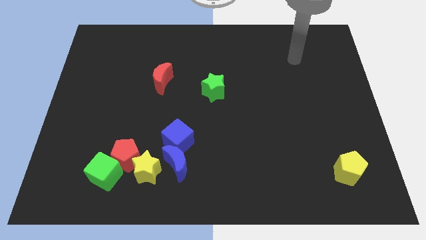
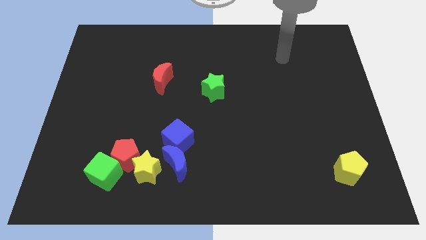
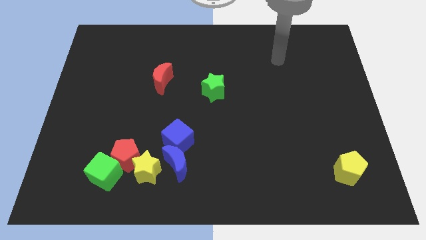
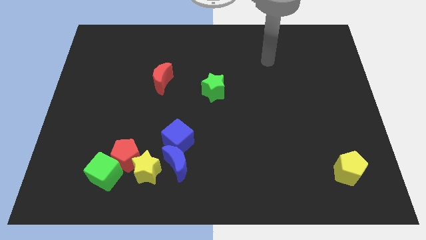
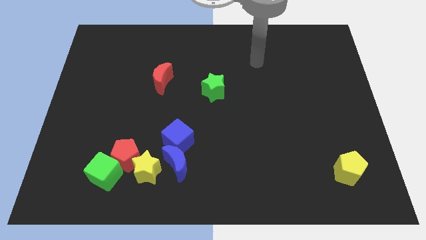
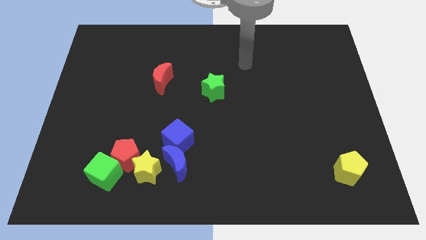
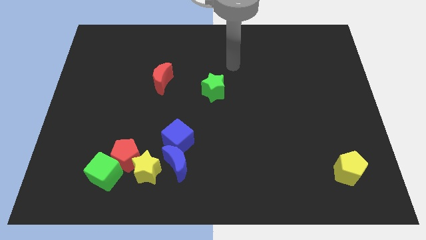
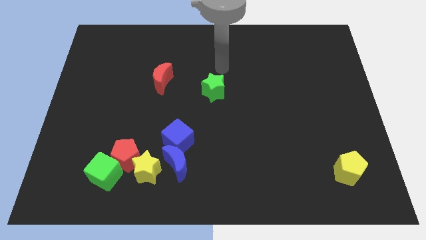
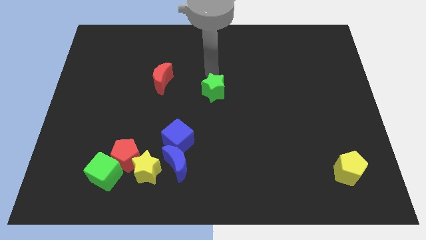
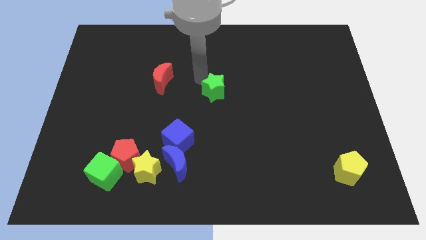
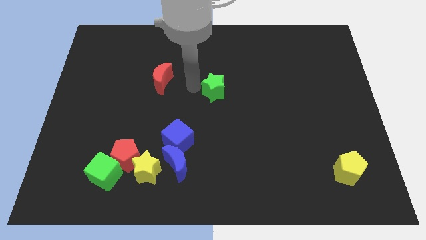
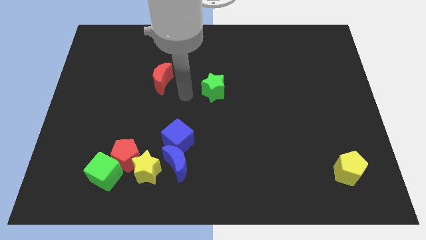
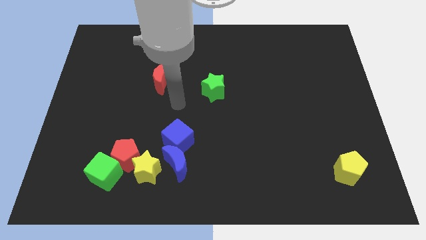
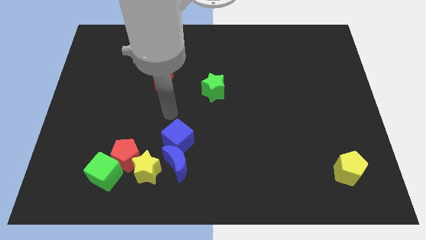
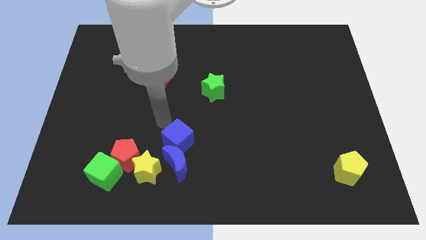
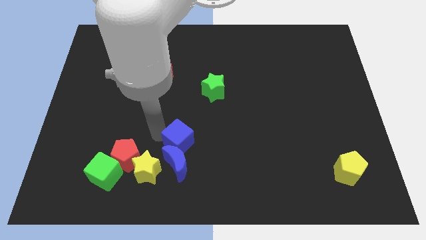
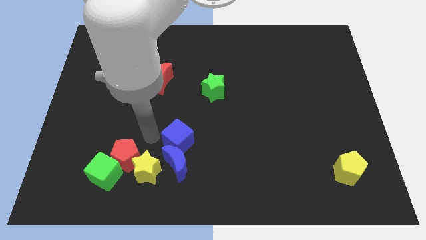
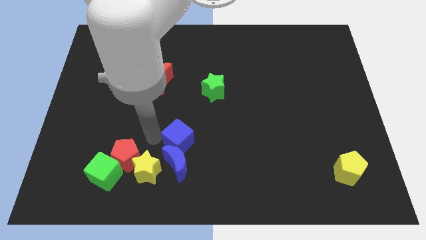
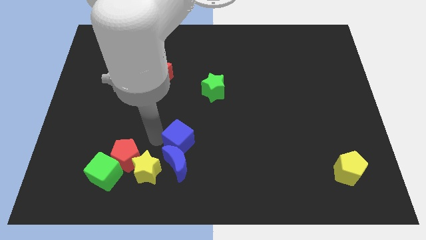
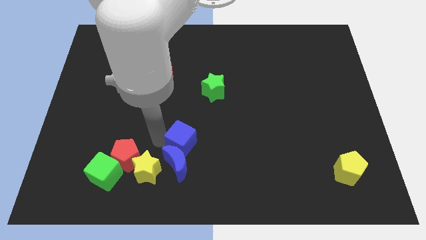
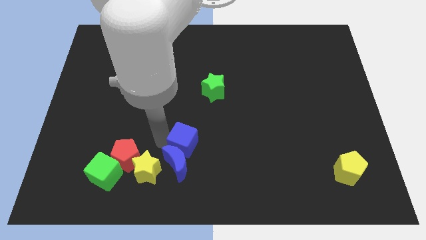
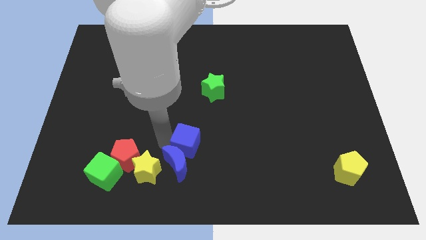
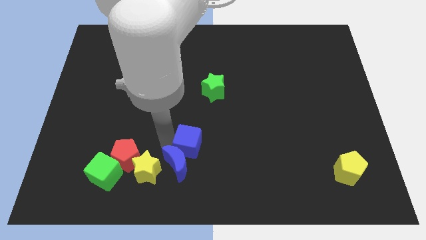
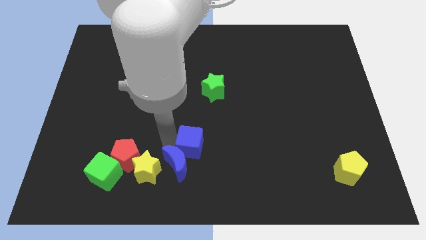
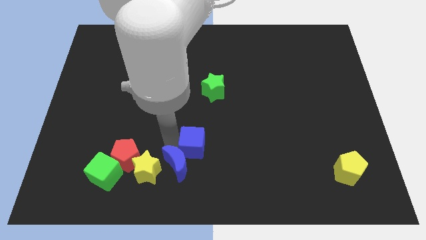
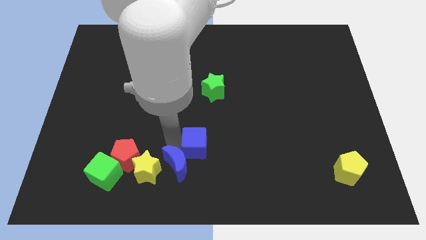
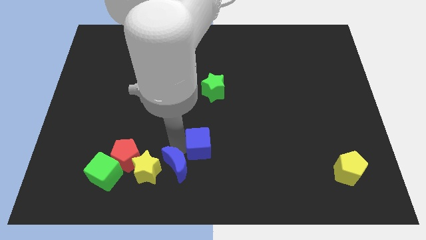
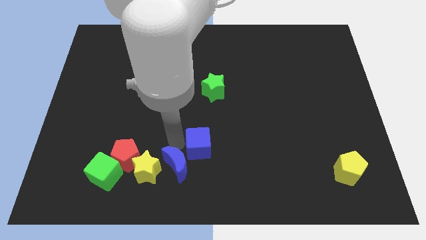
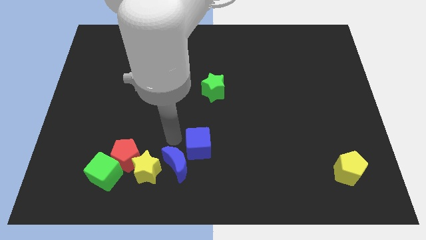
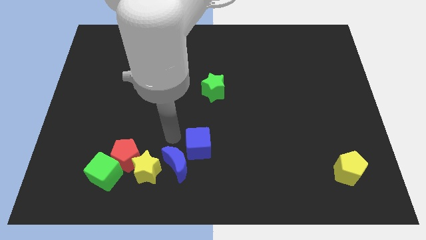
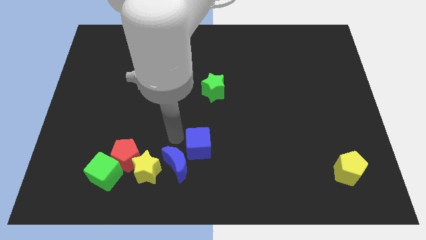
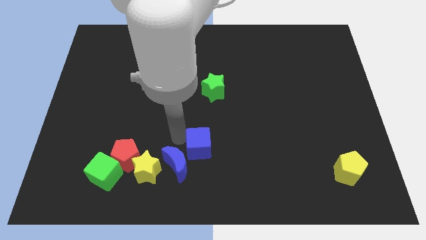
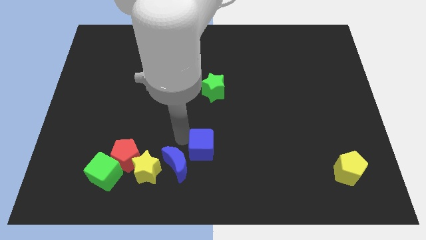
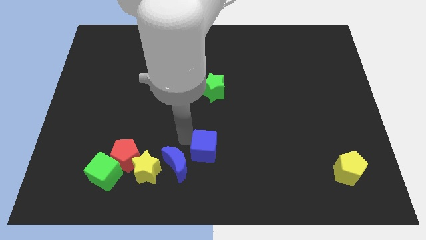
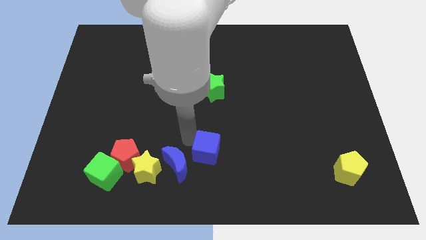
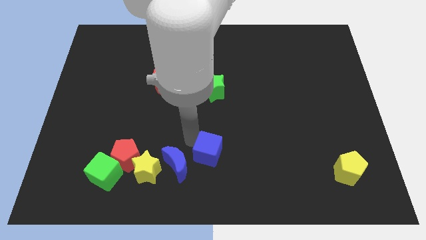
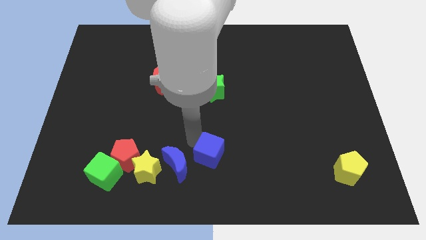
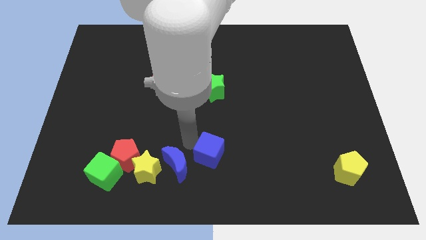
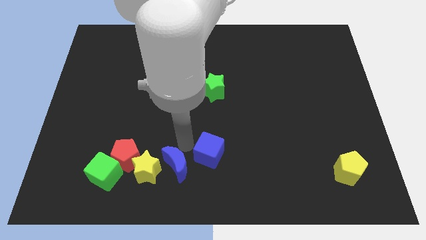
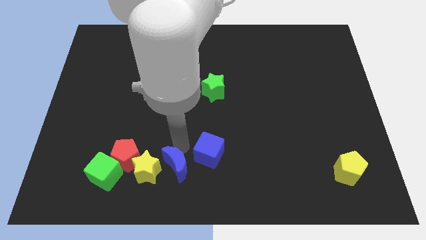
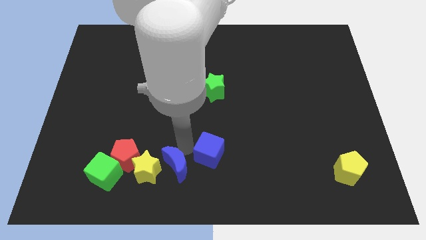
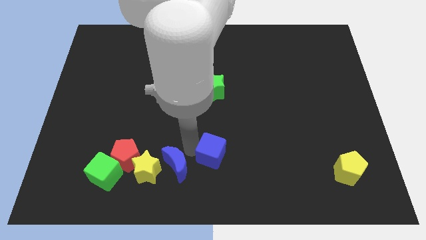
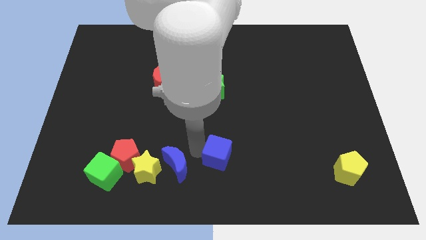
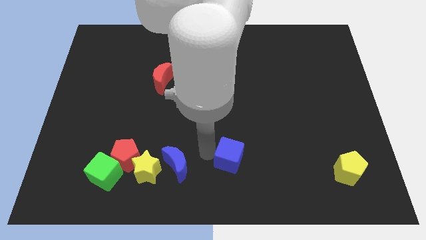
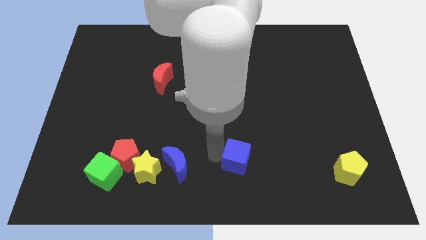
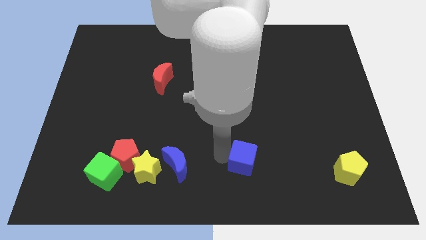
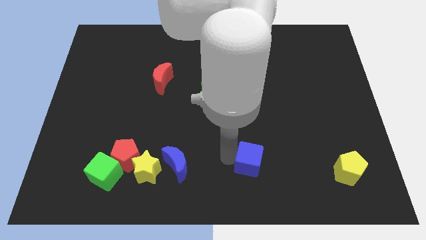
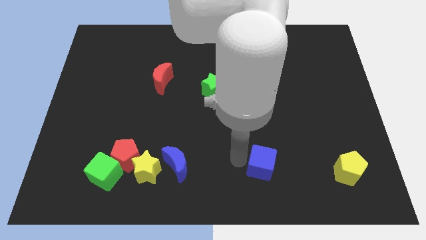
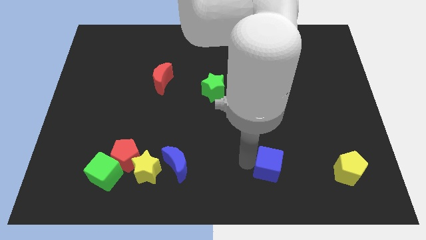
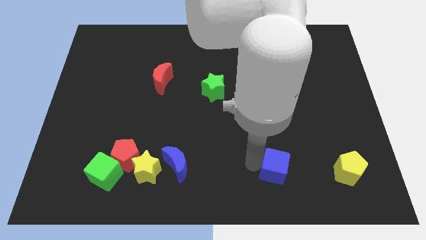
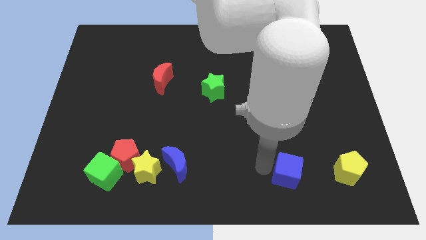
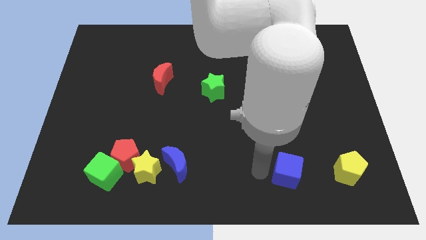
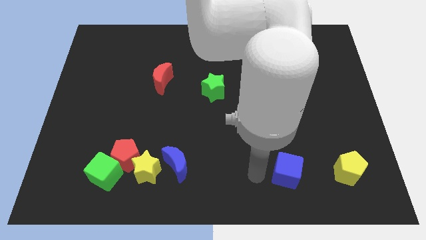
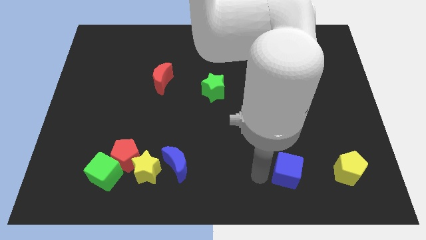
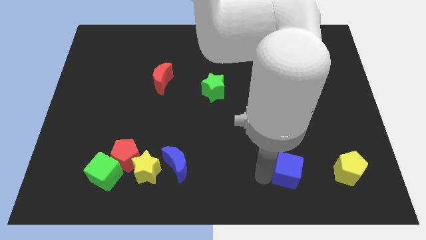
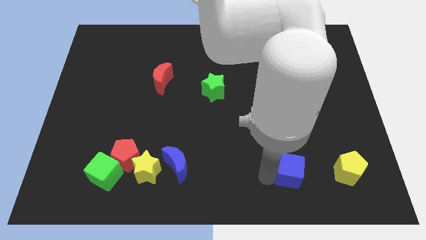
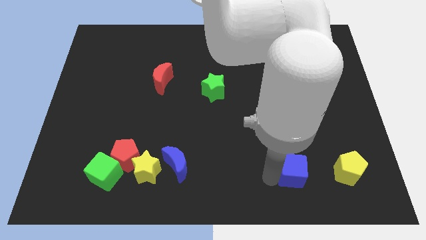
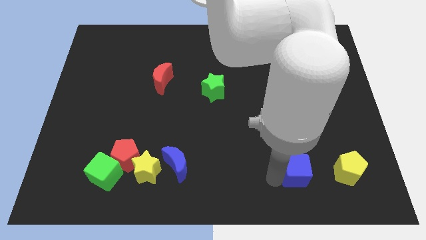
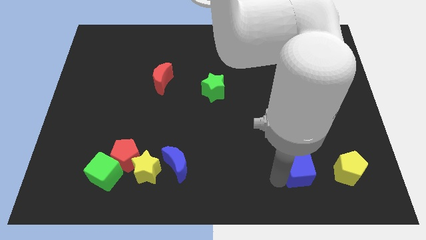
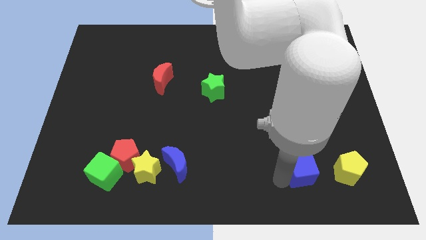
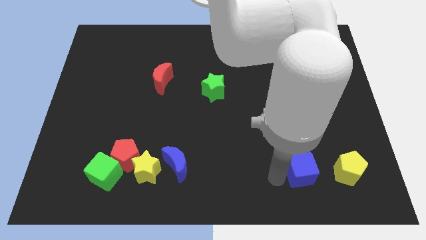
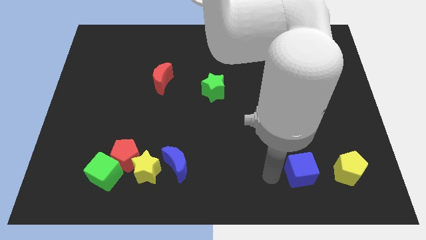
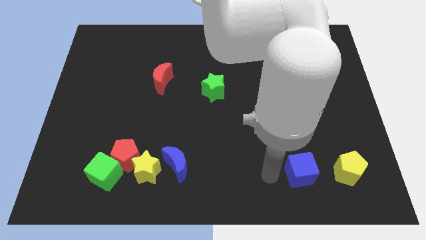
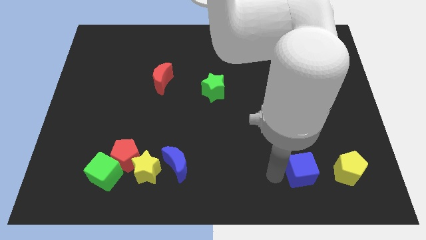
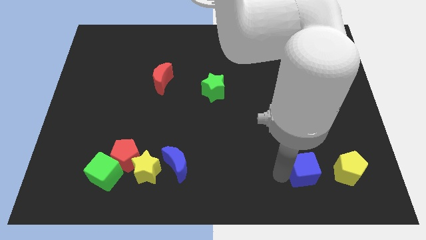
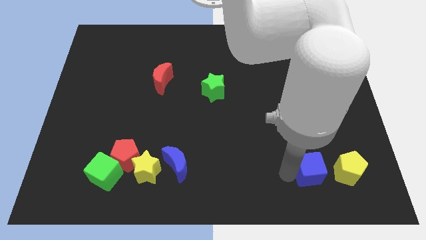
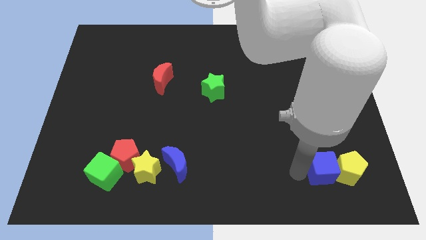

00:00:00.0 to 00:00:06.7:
move the blue cube close to the yellow pentagon
